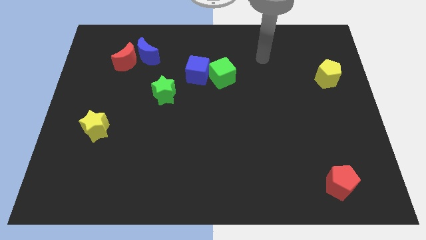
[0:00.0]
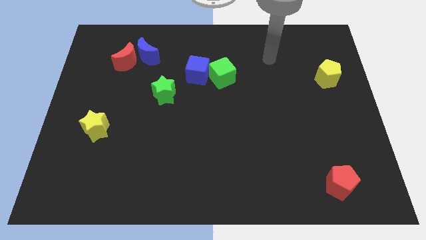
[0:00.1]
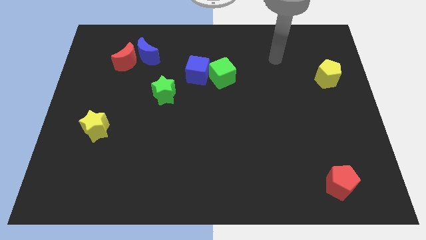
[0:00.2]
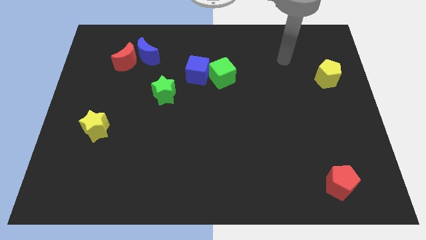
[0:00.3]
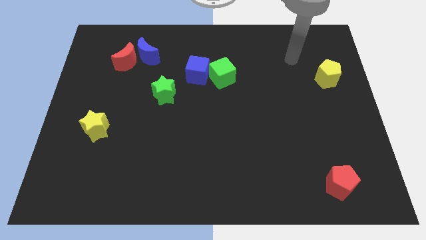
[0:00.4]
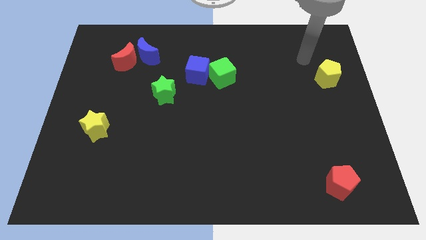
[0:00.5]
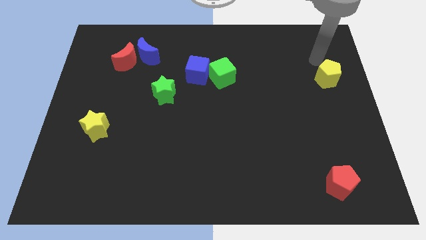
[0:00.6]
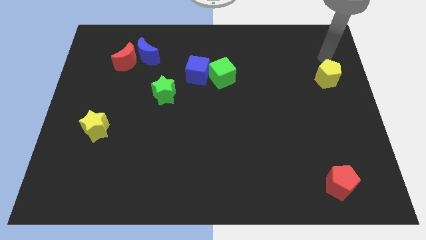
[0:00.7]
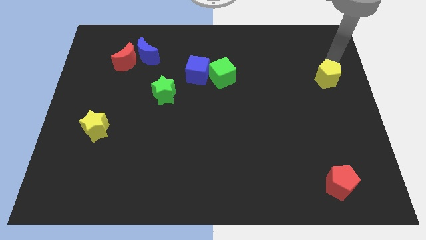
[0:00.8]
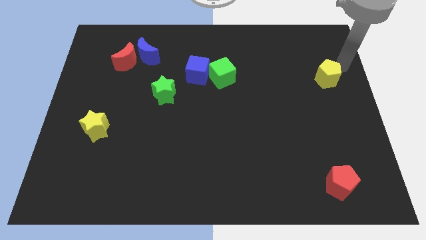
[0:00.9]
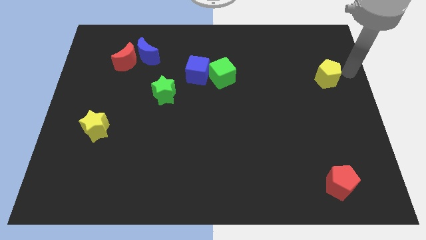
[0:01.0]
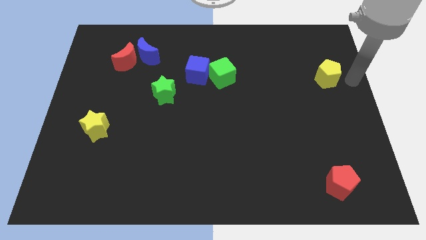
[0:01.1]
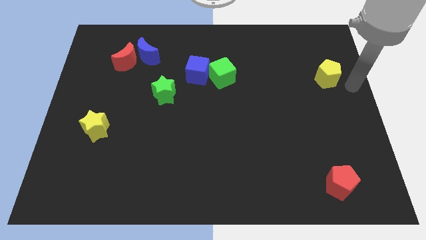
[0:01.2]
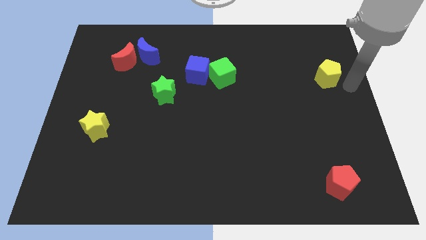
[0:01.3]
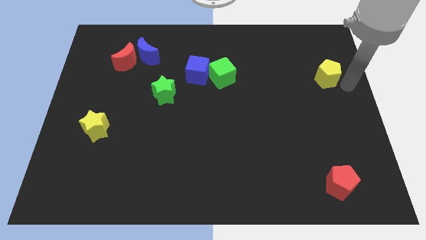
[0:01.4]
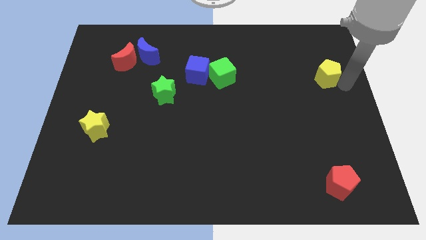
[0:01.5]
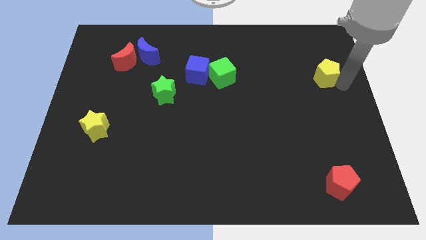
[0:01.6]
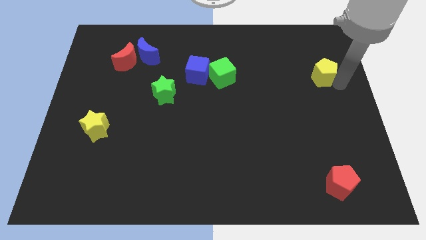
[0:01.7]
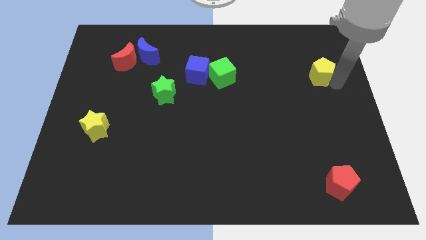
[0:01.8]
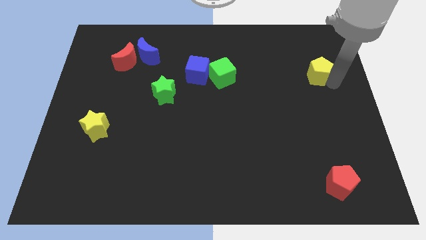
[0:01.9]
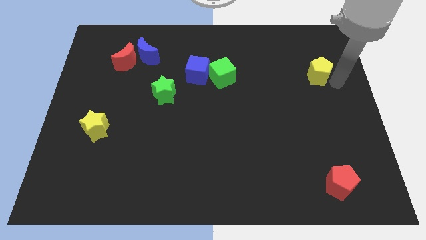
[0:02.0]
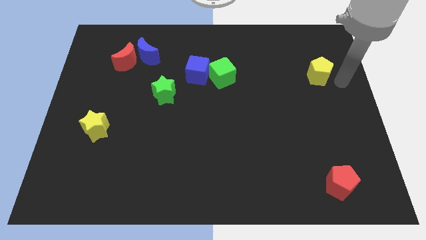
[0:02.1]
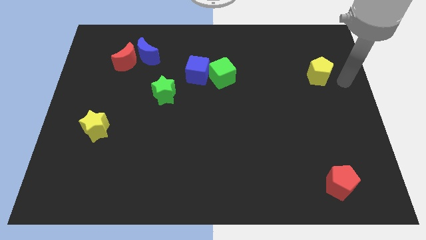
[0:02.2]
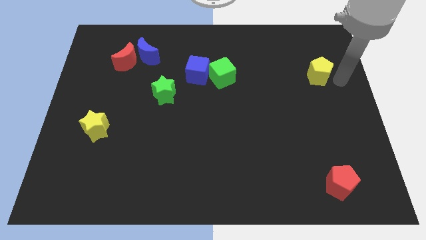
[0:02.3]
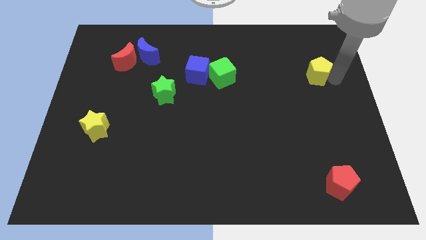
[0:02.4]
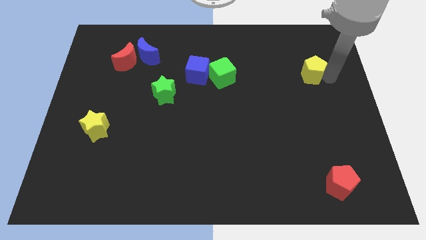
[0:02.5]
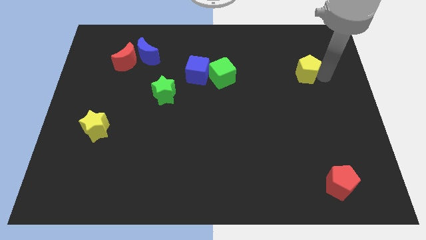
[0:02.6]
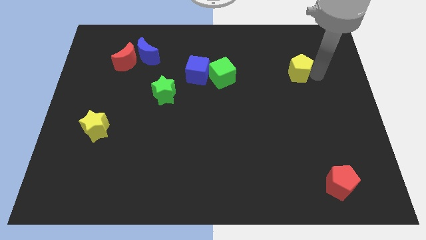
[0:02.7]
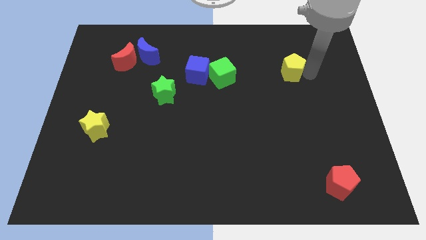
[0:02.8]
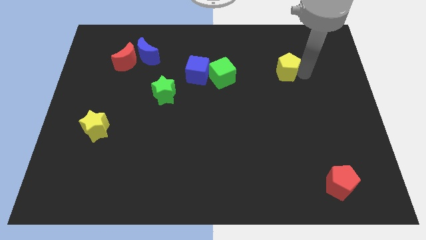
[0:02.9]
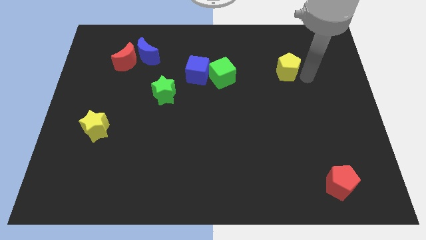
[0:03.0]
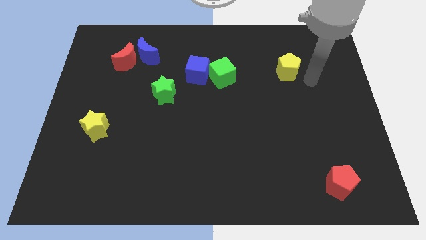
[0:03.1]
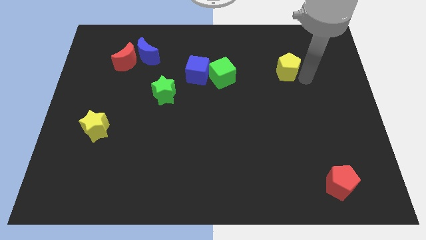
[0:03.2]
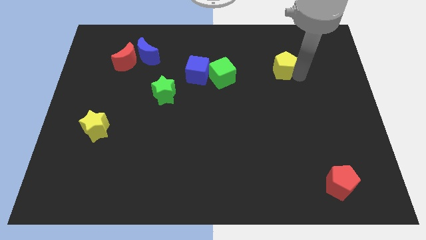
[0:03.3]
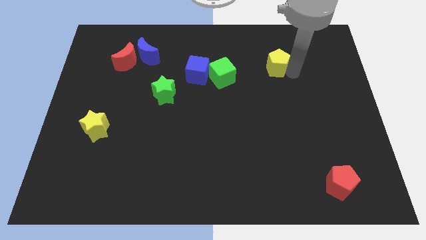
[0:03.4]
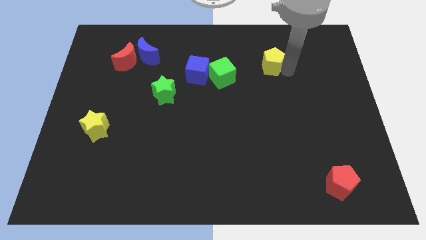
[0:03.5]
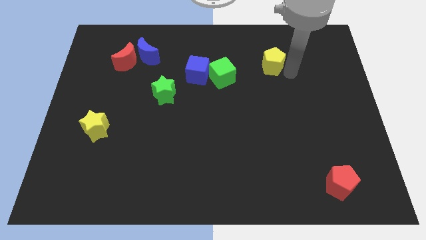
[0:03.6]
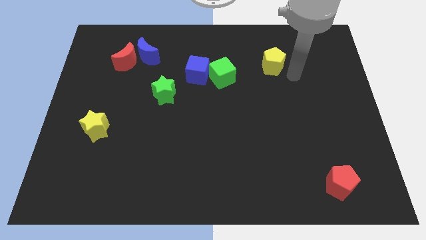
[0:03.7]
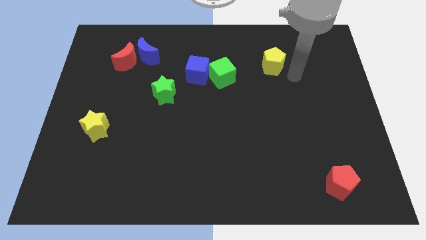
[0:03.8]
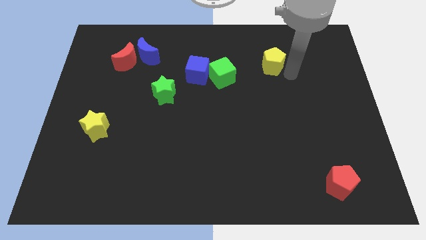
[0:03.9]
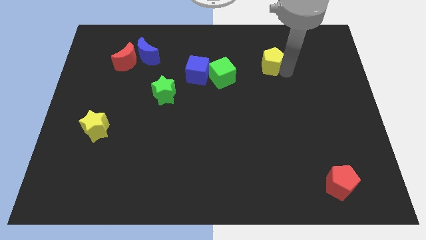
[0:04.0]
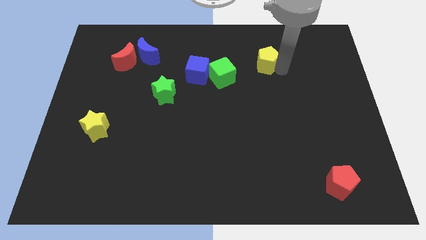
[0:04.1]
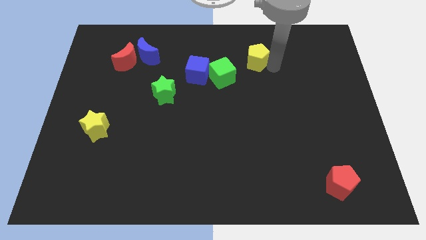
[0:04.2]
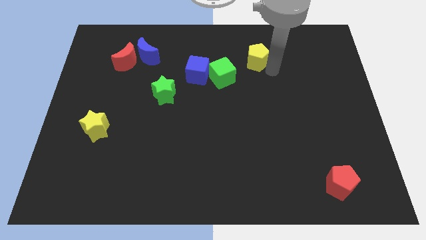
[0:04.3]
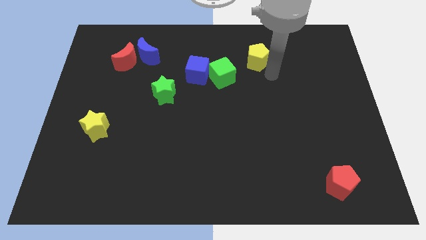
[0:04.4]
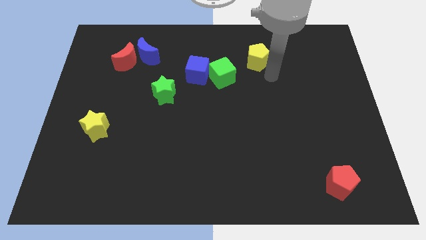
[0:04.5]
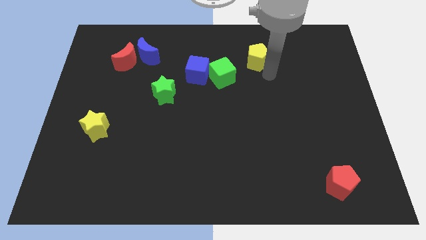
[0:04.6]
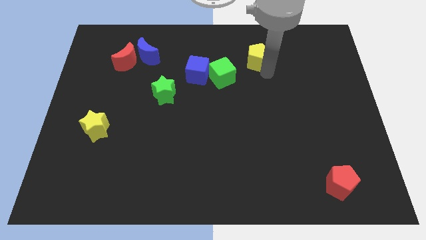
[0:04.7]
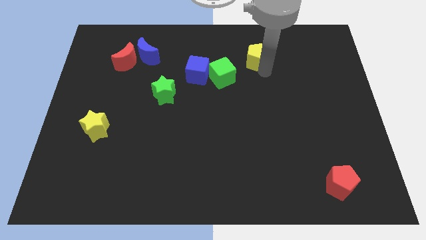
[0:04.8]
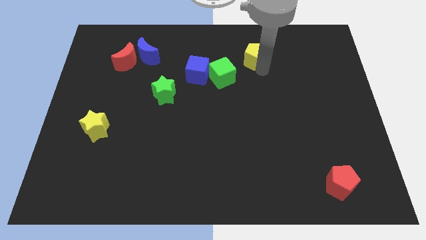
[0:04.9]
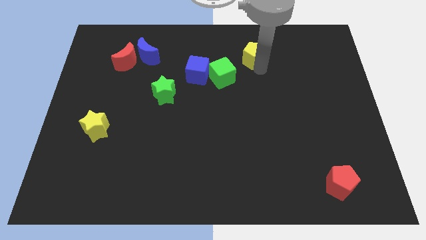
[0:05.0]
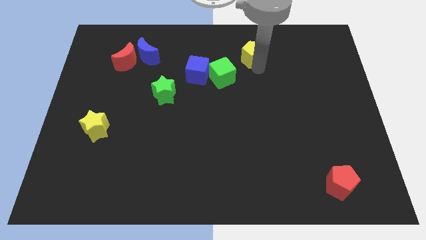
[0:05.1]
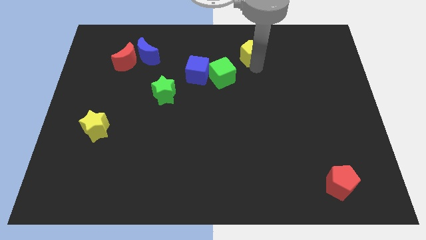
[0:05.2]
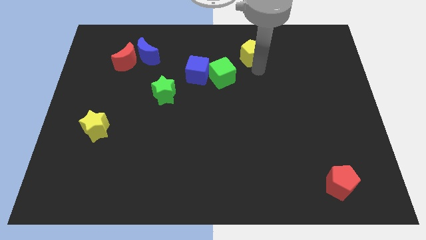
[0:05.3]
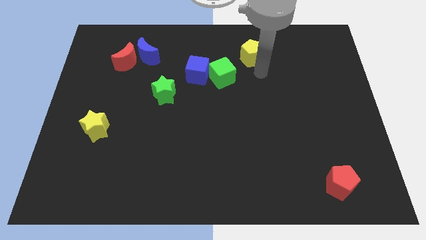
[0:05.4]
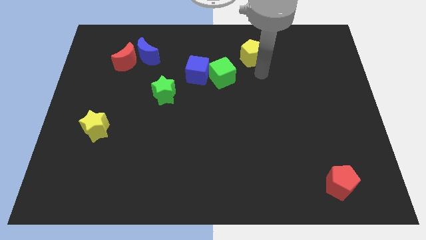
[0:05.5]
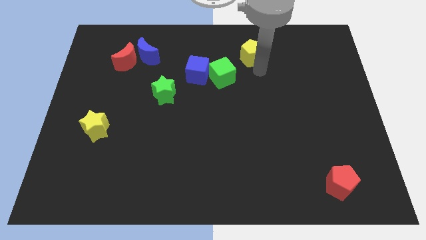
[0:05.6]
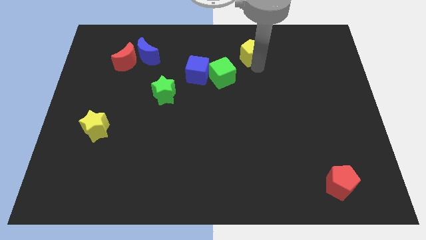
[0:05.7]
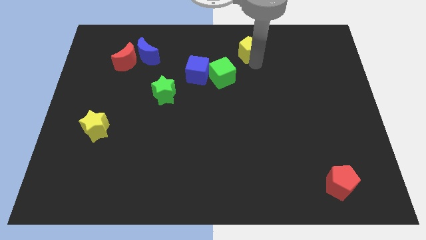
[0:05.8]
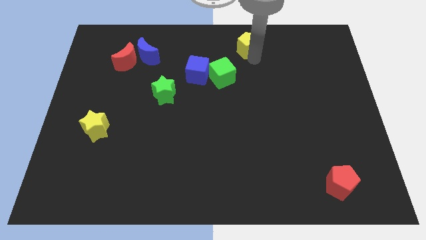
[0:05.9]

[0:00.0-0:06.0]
put the yellow pentagon to the top

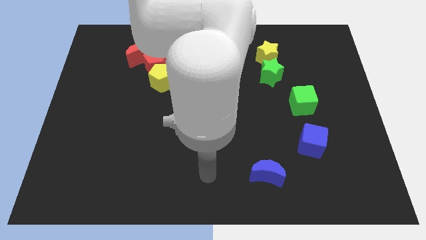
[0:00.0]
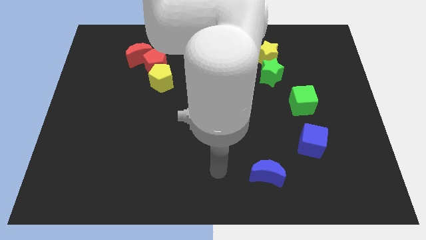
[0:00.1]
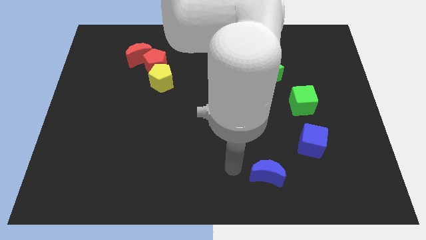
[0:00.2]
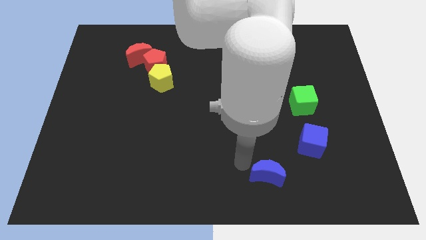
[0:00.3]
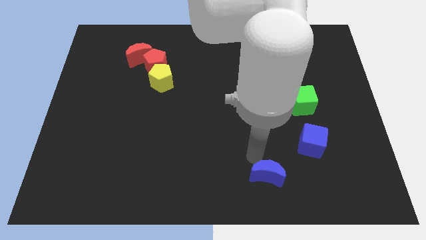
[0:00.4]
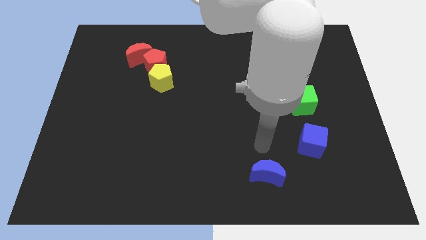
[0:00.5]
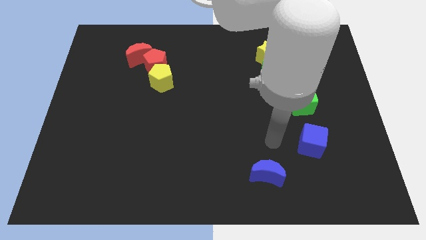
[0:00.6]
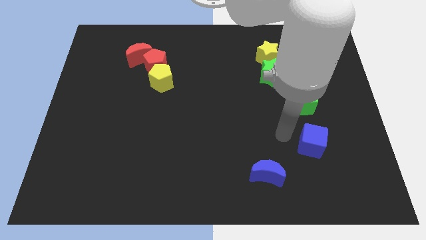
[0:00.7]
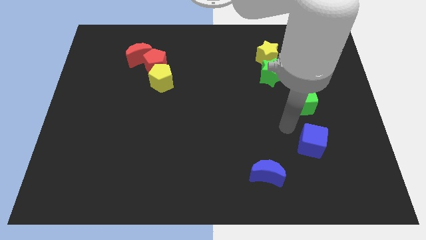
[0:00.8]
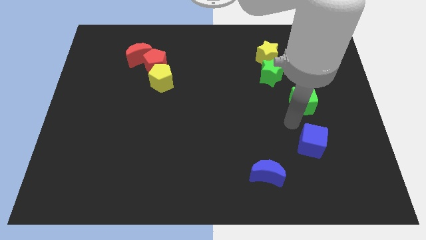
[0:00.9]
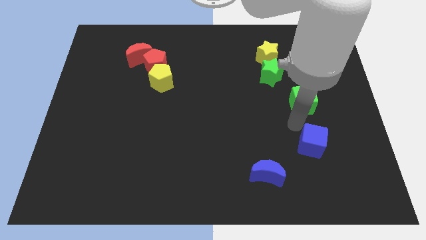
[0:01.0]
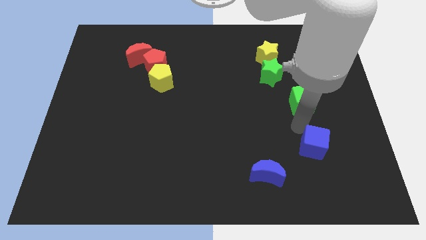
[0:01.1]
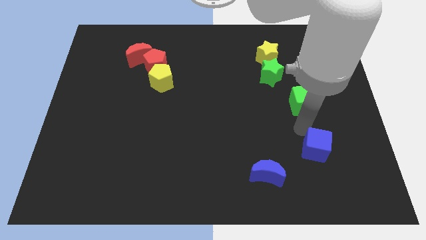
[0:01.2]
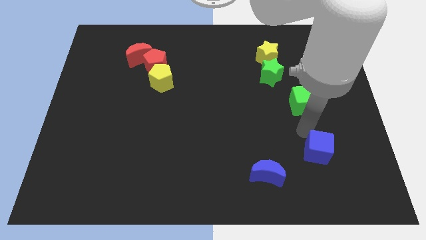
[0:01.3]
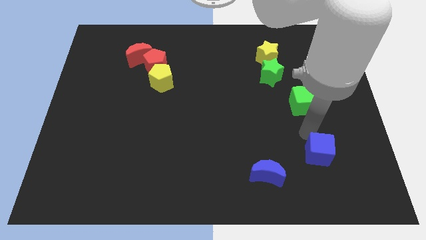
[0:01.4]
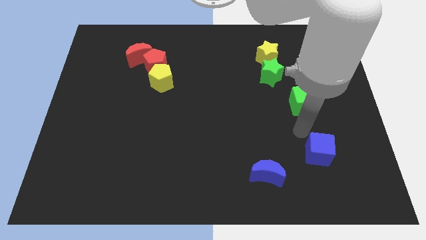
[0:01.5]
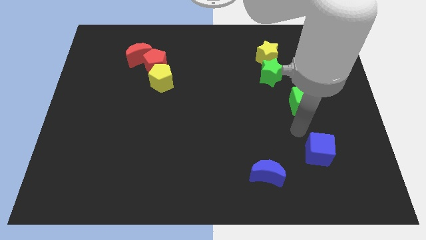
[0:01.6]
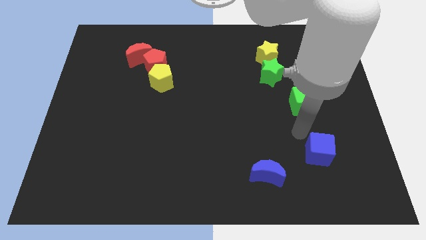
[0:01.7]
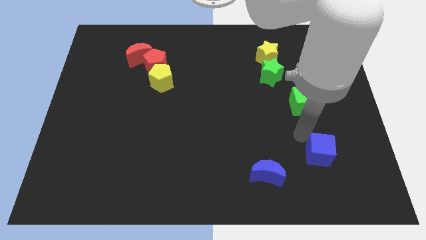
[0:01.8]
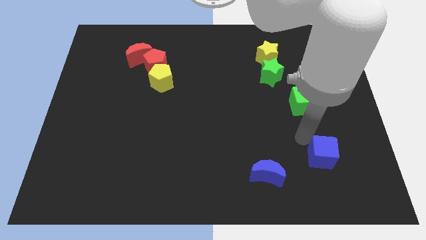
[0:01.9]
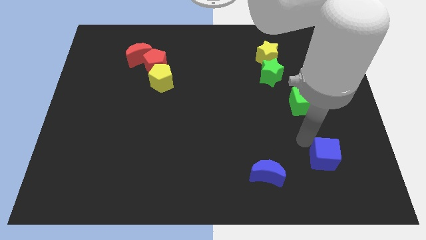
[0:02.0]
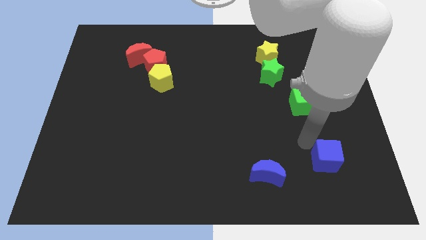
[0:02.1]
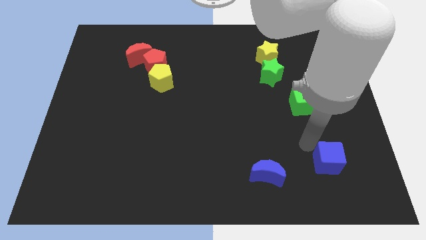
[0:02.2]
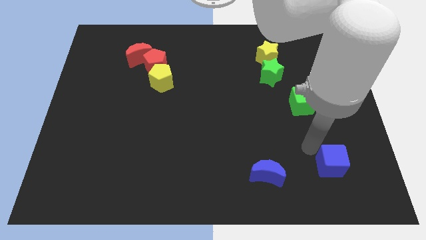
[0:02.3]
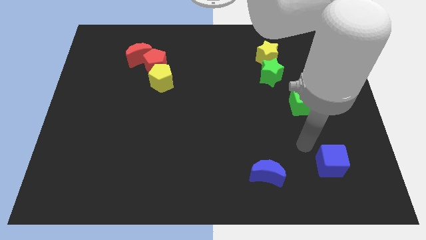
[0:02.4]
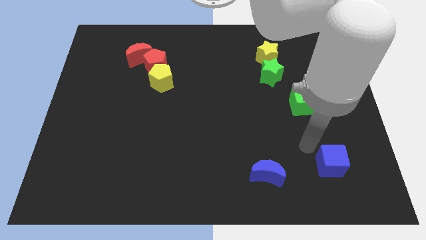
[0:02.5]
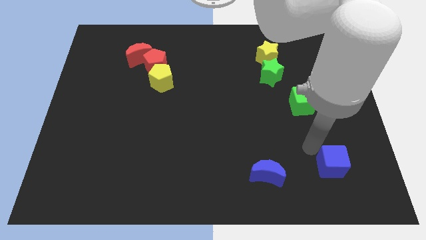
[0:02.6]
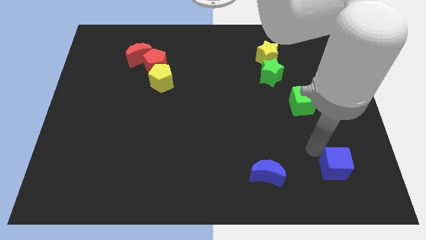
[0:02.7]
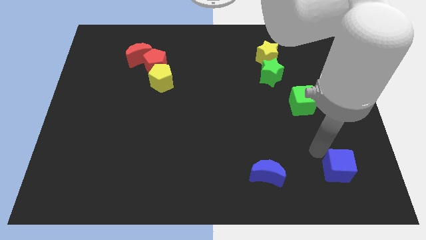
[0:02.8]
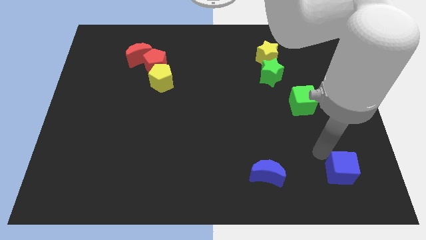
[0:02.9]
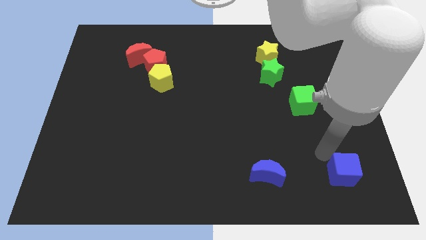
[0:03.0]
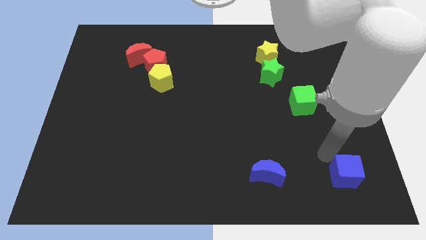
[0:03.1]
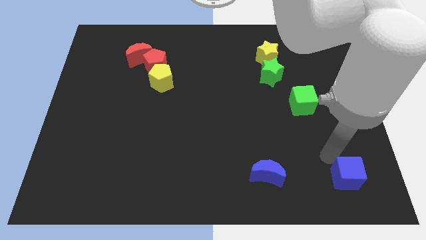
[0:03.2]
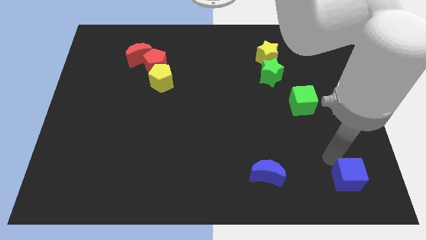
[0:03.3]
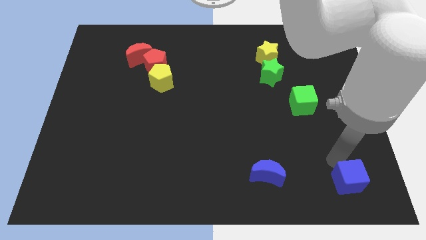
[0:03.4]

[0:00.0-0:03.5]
slide the blue cube to the bottom right corner
